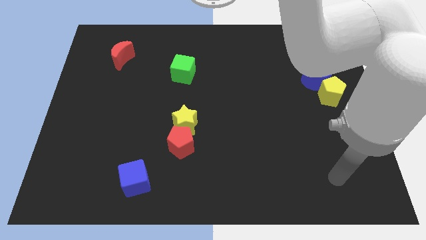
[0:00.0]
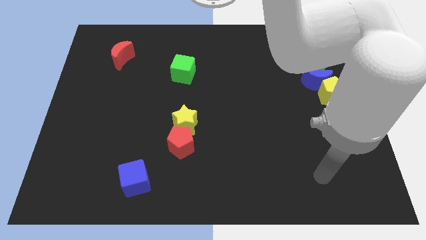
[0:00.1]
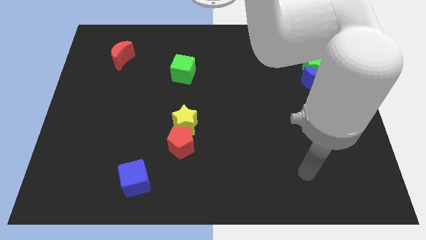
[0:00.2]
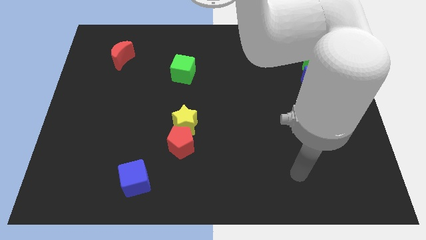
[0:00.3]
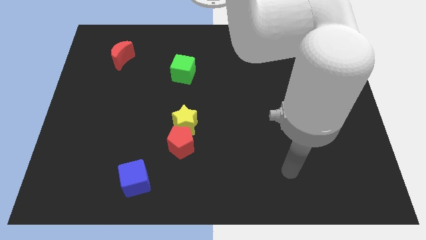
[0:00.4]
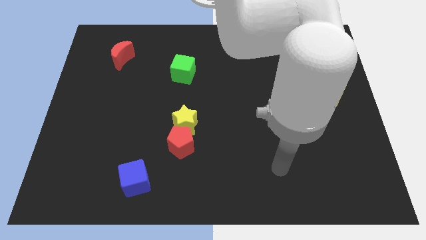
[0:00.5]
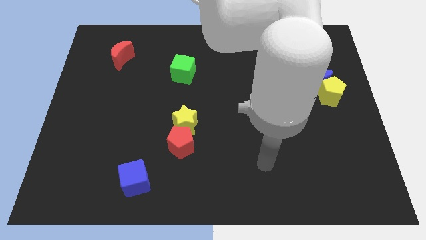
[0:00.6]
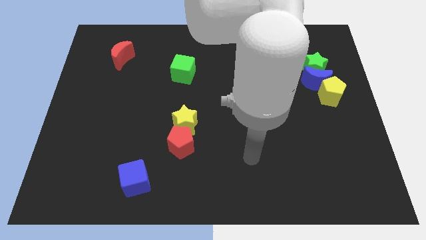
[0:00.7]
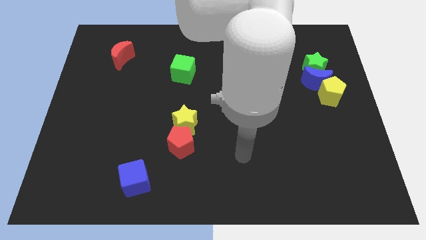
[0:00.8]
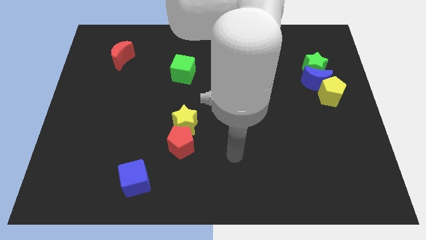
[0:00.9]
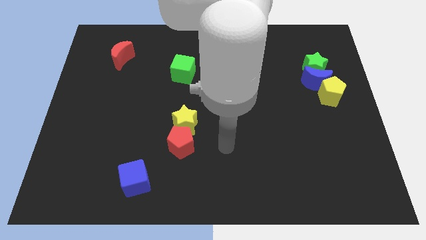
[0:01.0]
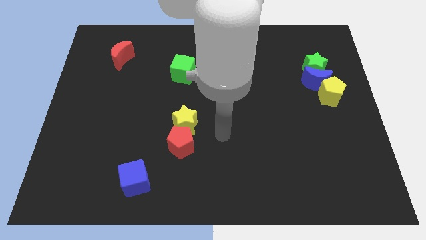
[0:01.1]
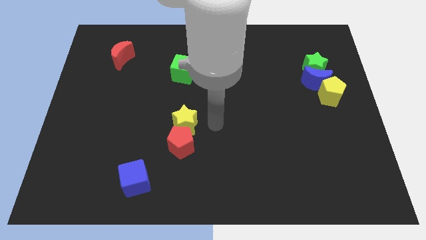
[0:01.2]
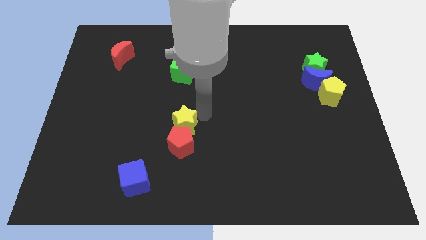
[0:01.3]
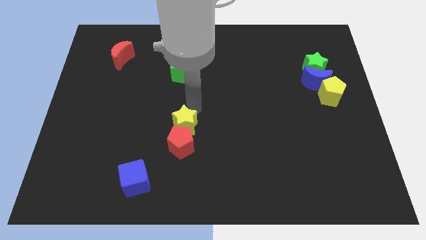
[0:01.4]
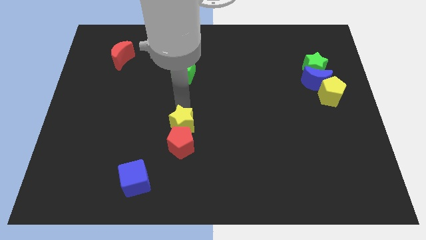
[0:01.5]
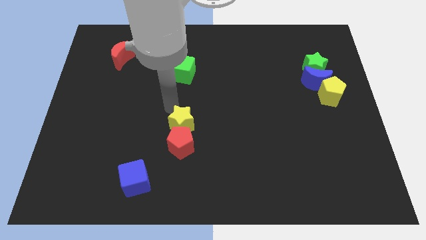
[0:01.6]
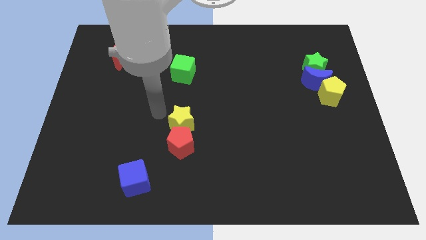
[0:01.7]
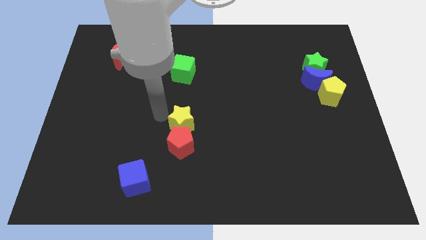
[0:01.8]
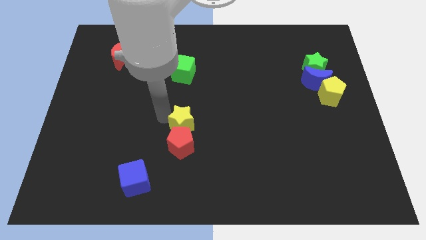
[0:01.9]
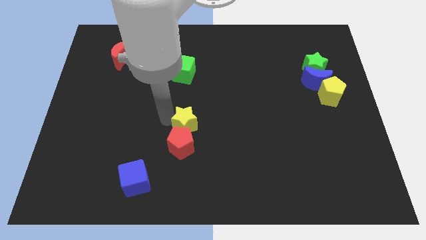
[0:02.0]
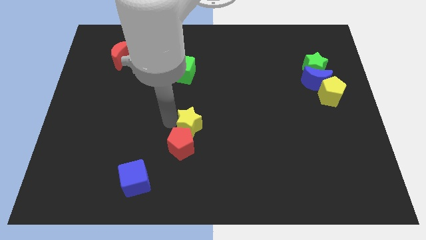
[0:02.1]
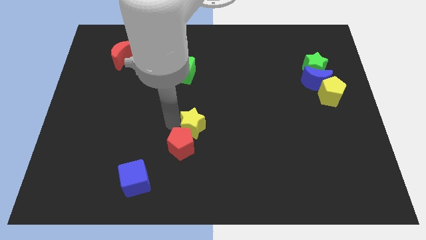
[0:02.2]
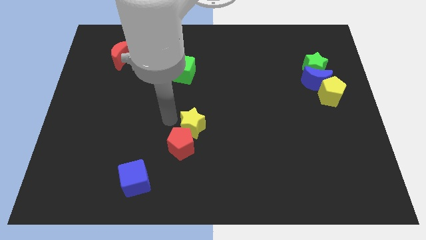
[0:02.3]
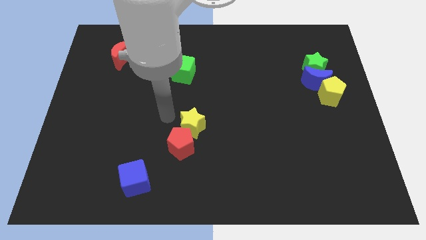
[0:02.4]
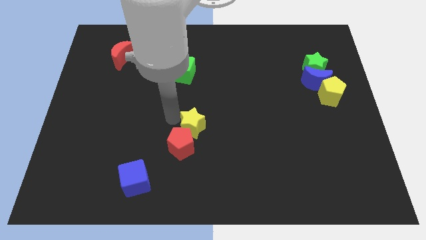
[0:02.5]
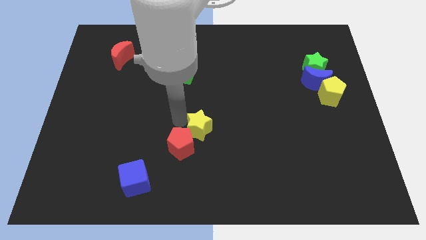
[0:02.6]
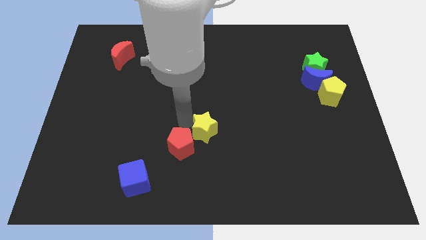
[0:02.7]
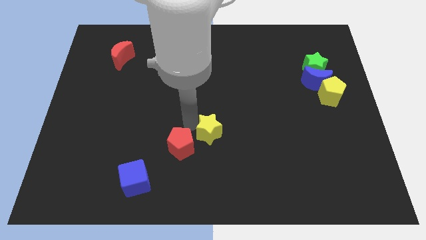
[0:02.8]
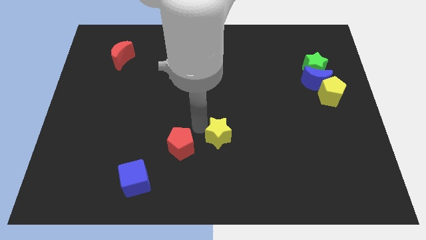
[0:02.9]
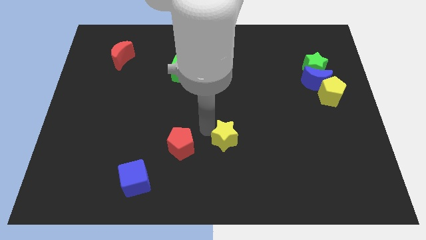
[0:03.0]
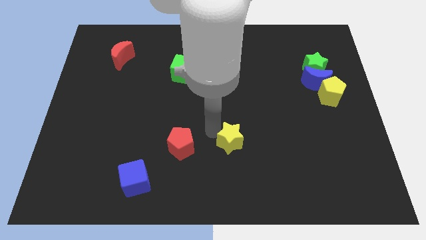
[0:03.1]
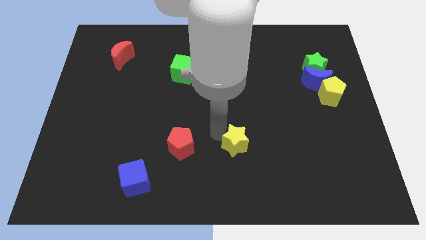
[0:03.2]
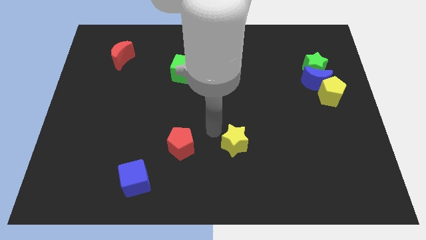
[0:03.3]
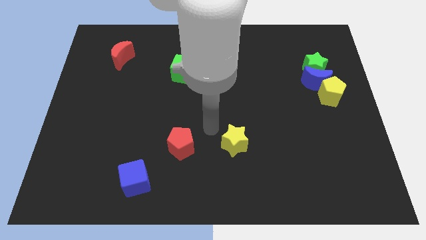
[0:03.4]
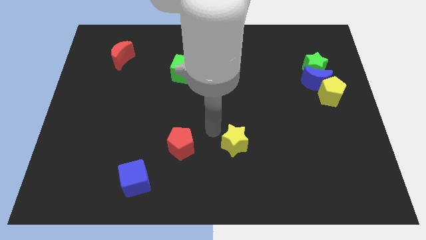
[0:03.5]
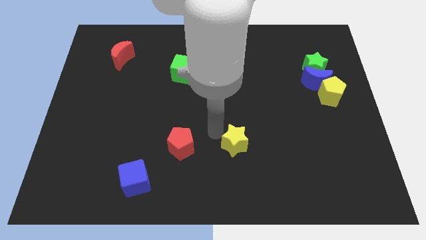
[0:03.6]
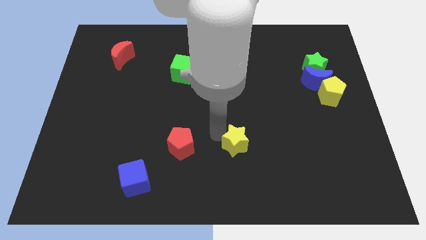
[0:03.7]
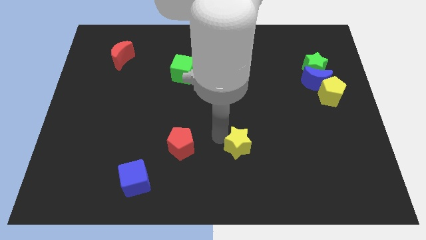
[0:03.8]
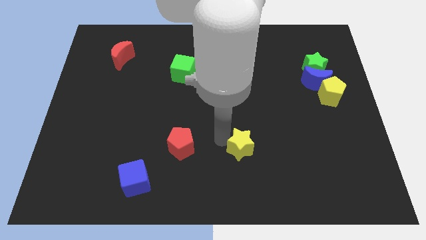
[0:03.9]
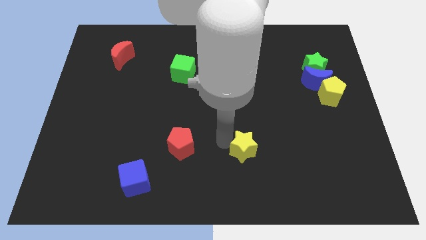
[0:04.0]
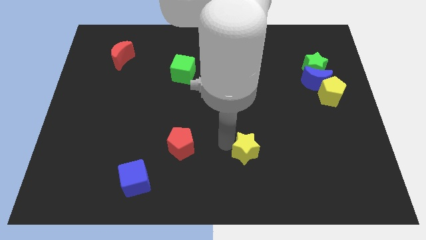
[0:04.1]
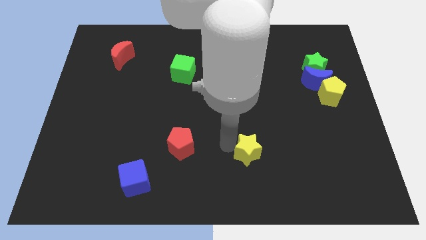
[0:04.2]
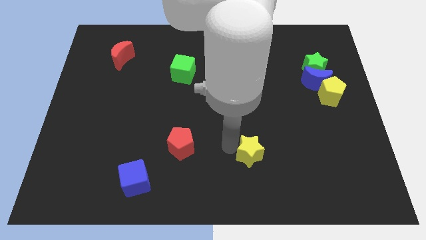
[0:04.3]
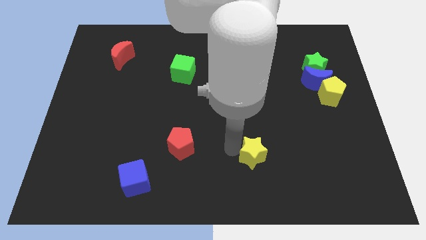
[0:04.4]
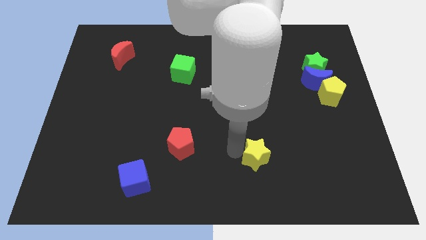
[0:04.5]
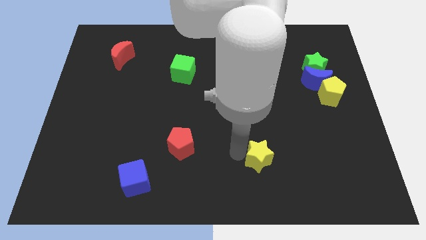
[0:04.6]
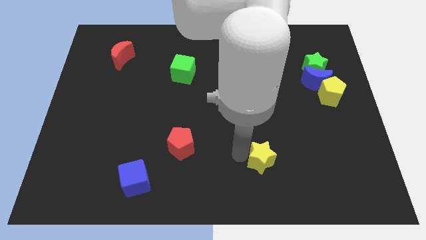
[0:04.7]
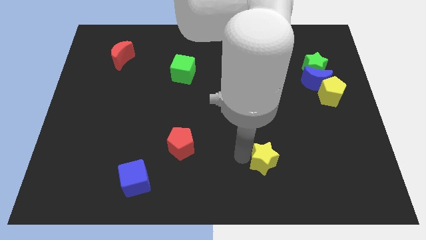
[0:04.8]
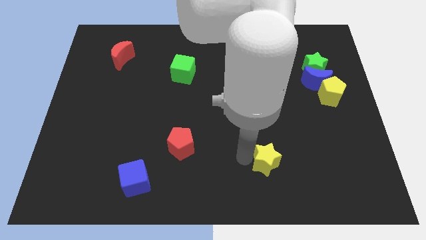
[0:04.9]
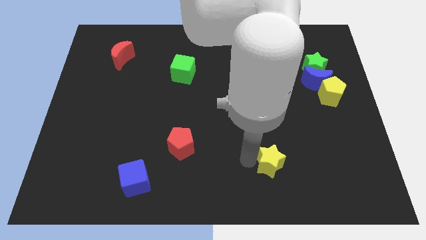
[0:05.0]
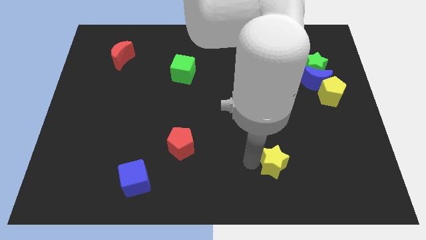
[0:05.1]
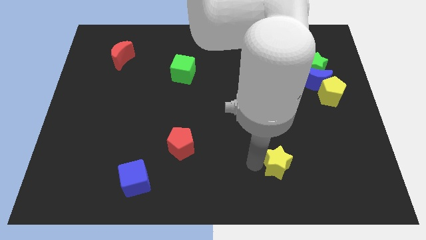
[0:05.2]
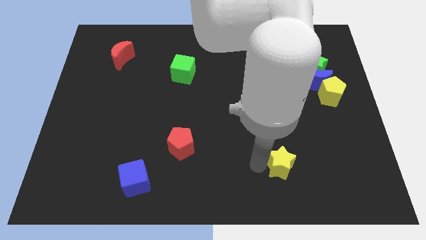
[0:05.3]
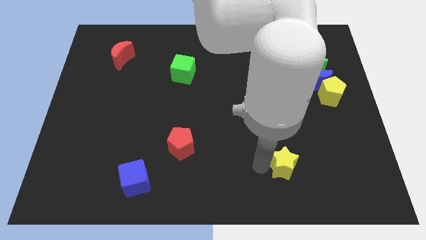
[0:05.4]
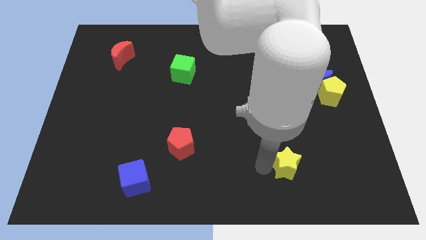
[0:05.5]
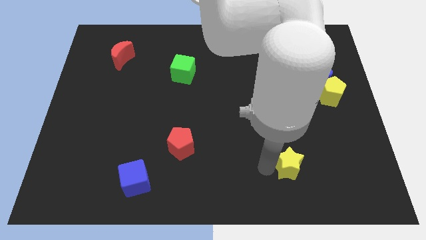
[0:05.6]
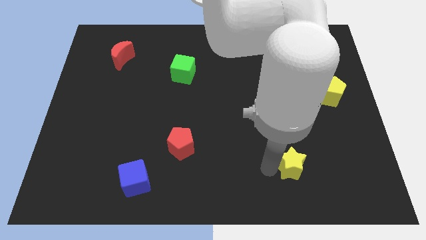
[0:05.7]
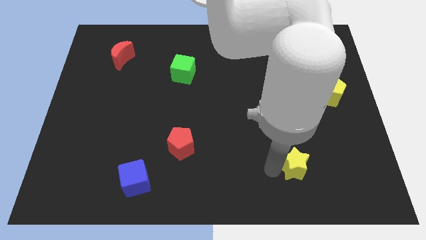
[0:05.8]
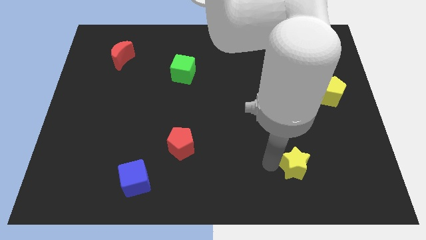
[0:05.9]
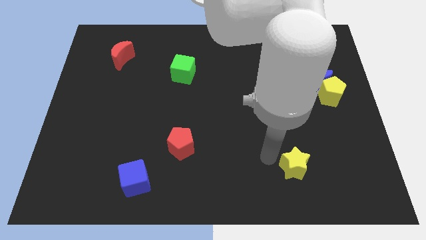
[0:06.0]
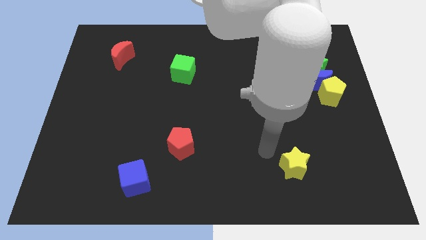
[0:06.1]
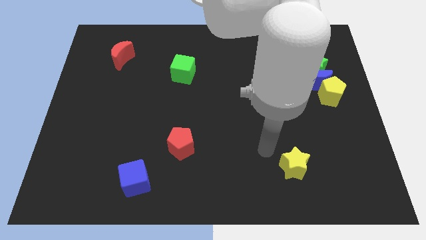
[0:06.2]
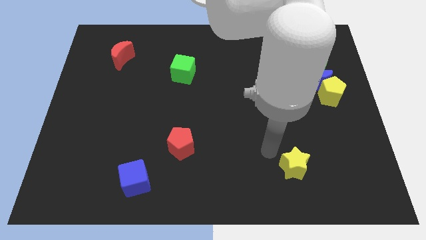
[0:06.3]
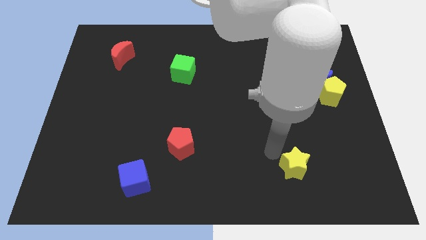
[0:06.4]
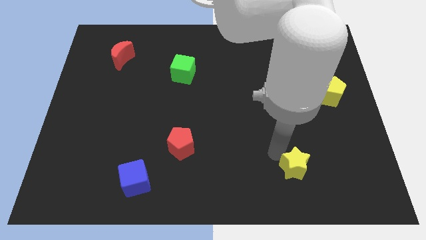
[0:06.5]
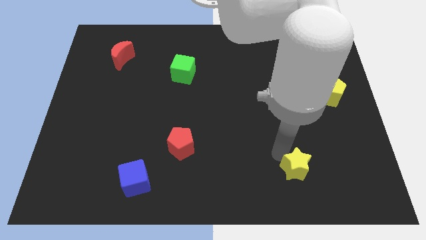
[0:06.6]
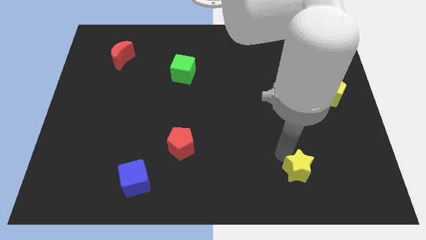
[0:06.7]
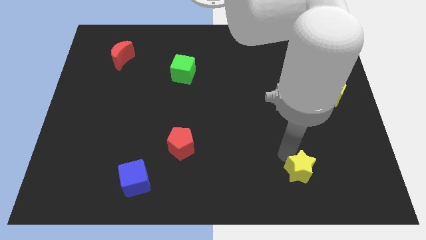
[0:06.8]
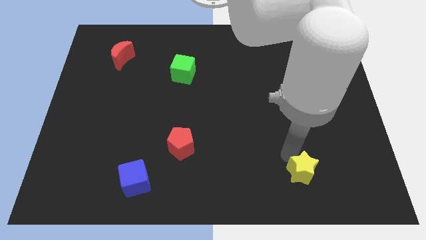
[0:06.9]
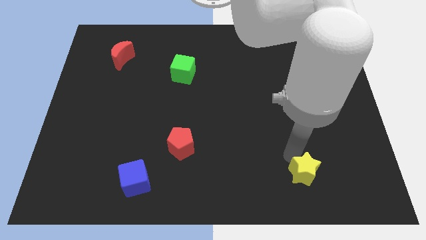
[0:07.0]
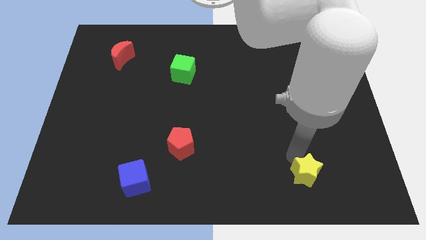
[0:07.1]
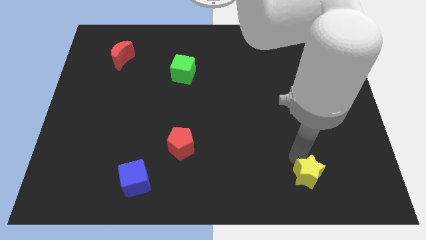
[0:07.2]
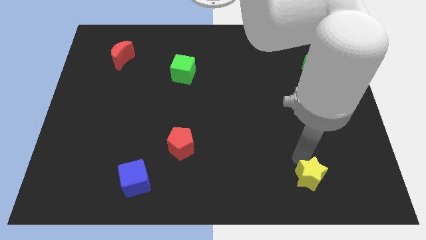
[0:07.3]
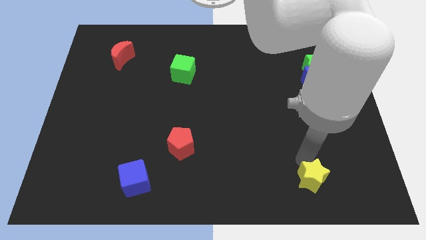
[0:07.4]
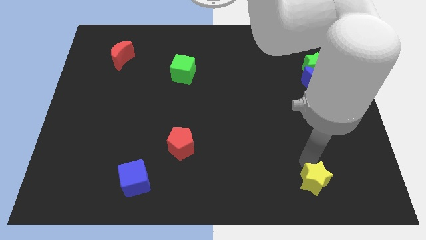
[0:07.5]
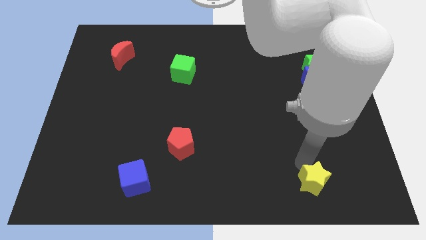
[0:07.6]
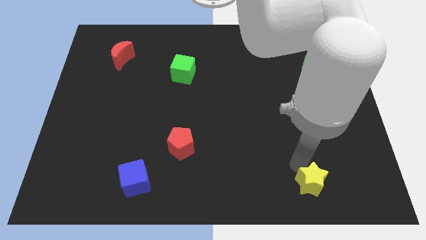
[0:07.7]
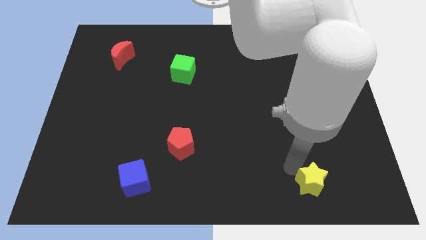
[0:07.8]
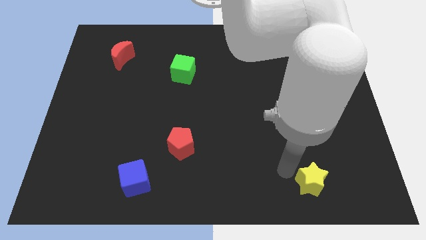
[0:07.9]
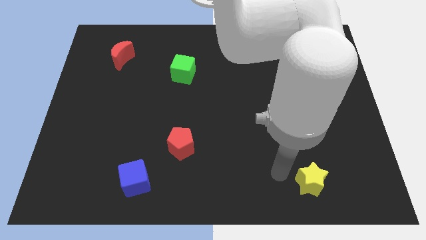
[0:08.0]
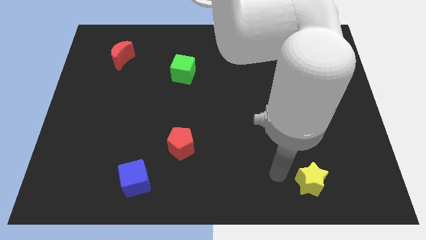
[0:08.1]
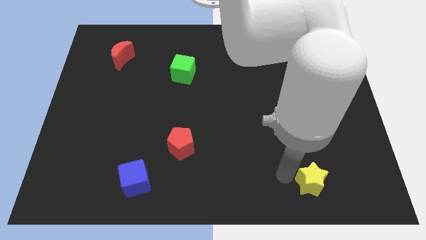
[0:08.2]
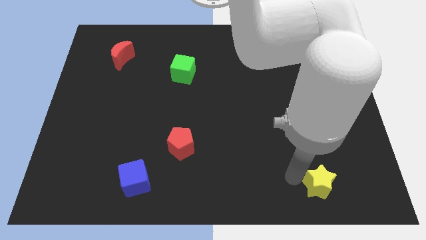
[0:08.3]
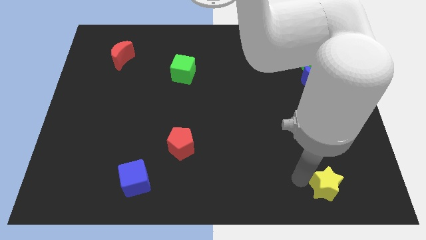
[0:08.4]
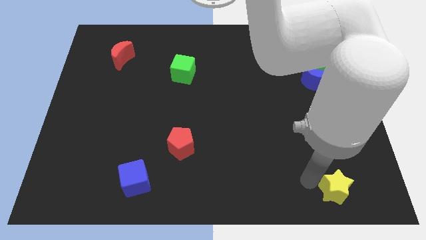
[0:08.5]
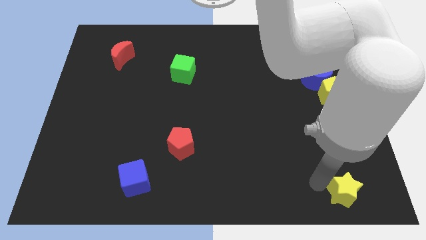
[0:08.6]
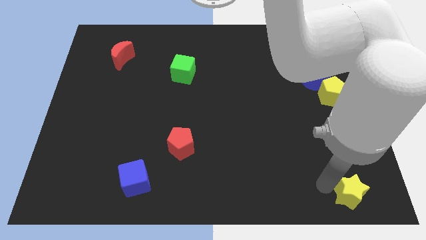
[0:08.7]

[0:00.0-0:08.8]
push the yellow star to the bottom right
